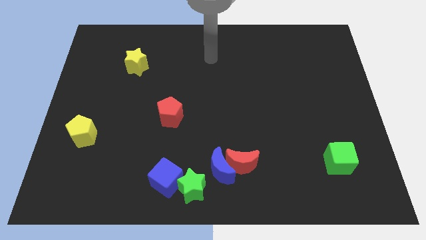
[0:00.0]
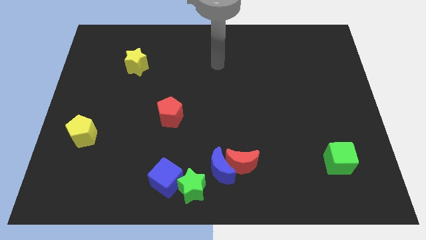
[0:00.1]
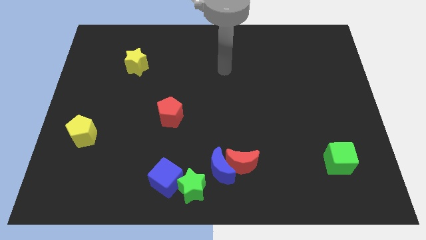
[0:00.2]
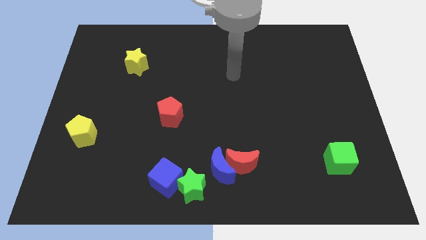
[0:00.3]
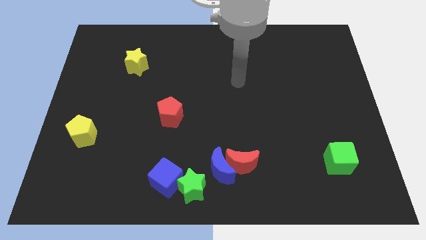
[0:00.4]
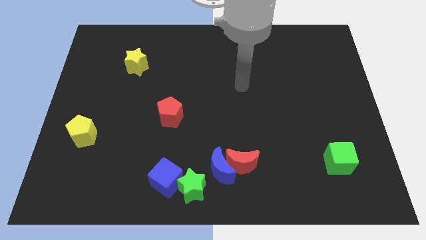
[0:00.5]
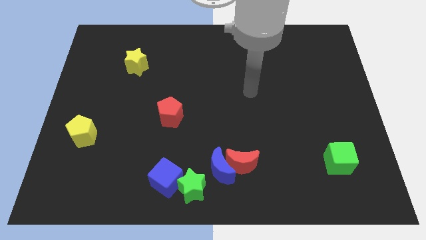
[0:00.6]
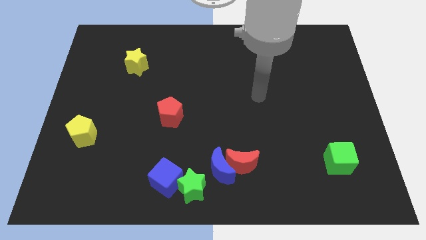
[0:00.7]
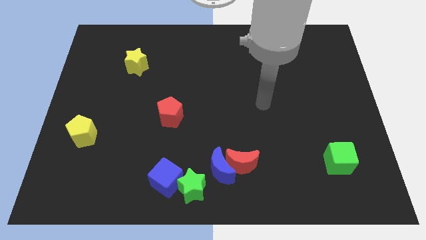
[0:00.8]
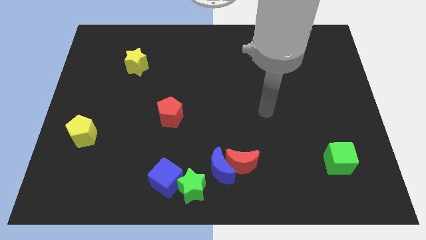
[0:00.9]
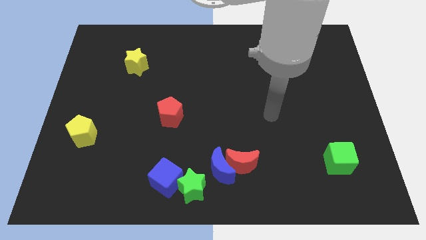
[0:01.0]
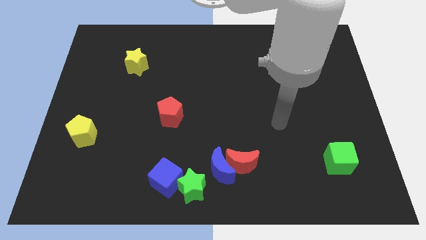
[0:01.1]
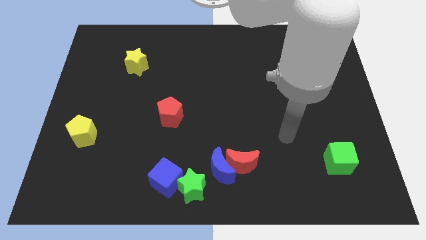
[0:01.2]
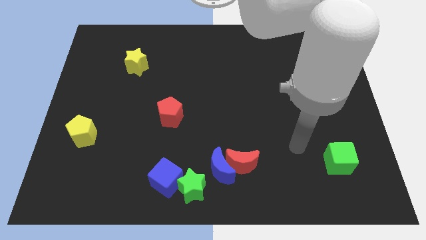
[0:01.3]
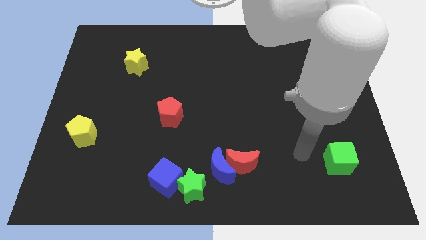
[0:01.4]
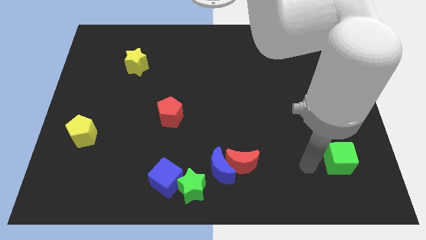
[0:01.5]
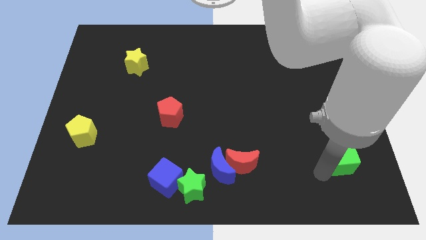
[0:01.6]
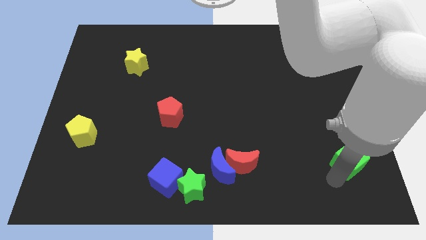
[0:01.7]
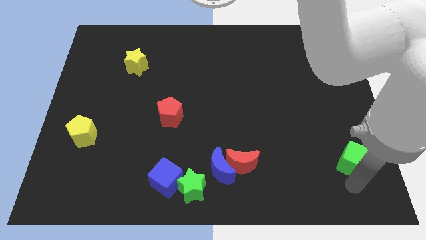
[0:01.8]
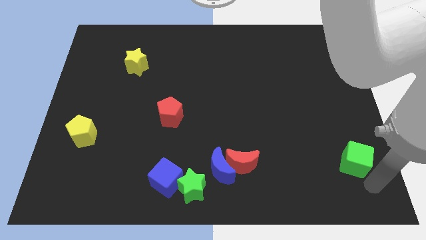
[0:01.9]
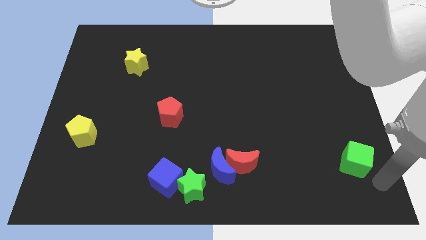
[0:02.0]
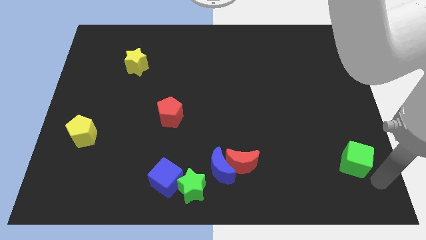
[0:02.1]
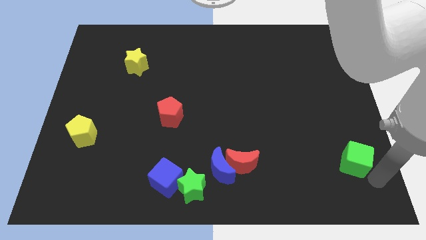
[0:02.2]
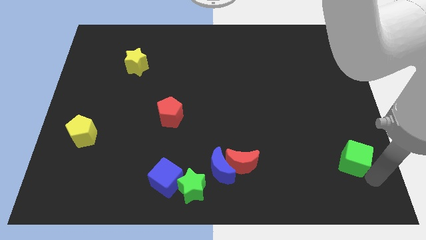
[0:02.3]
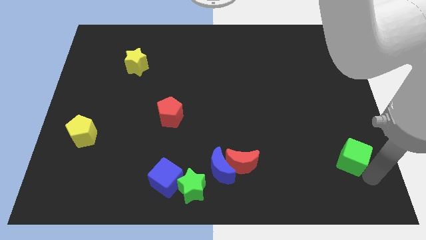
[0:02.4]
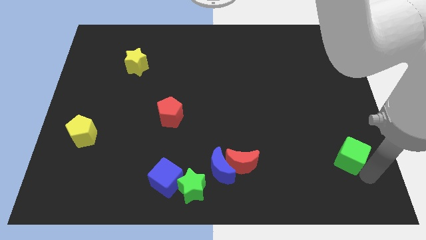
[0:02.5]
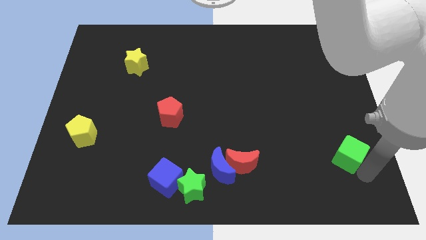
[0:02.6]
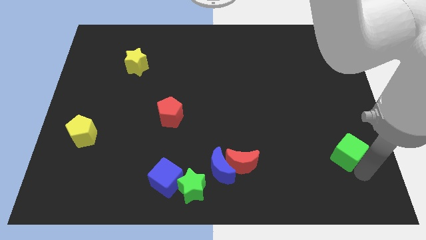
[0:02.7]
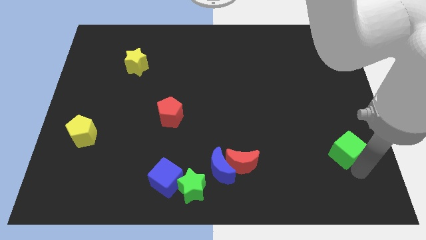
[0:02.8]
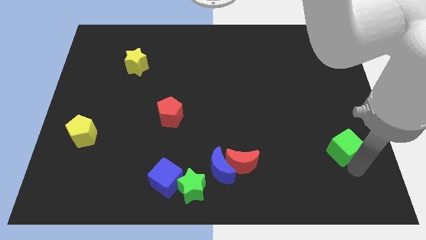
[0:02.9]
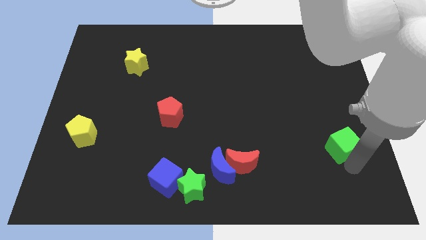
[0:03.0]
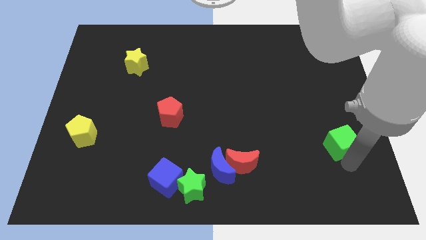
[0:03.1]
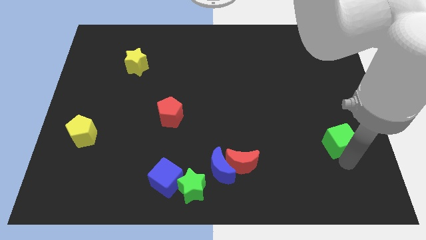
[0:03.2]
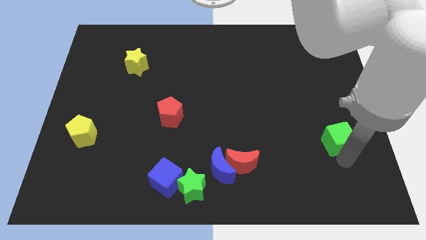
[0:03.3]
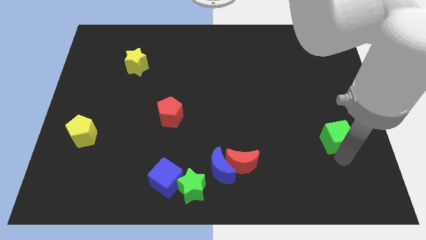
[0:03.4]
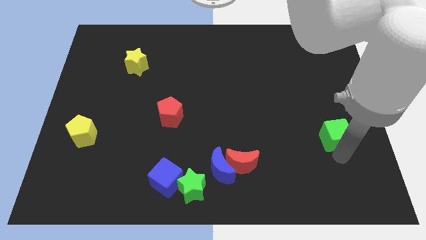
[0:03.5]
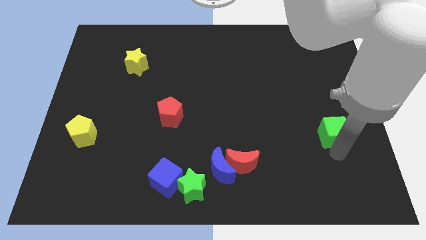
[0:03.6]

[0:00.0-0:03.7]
push the green cube somewhat up

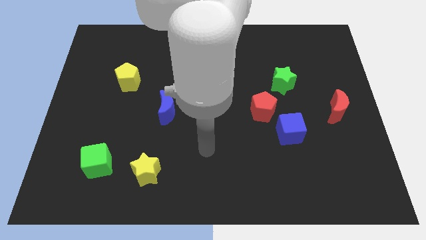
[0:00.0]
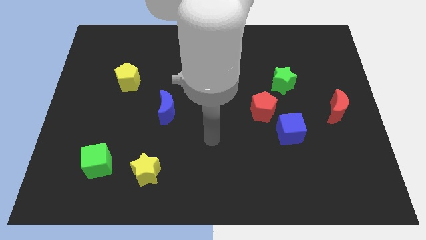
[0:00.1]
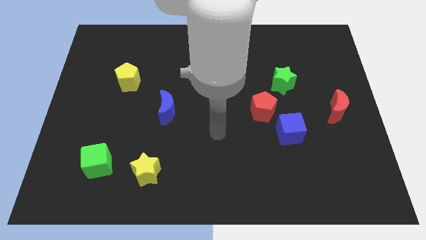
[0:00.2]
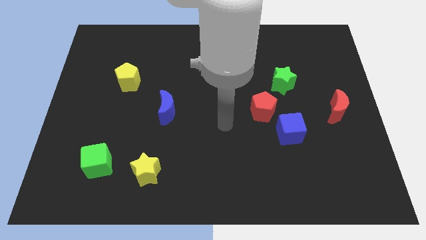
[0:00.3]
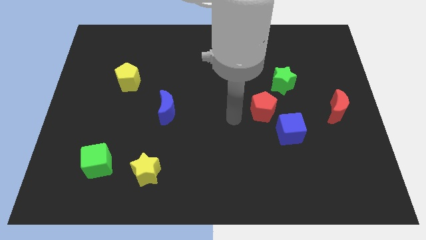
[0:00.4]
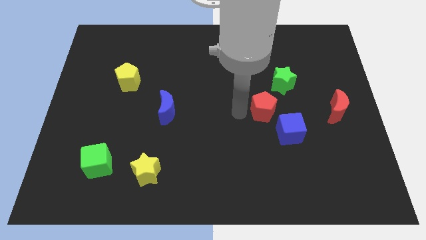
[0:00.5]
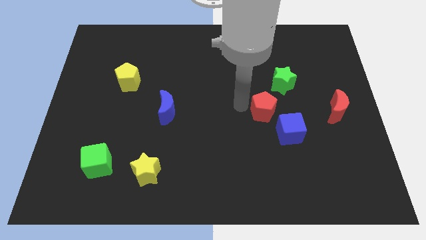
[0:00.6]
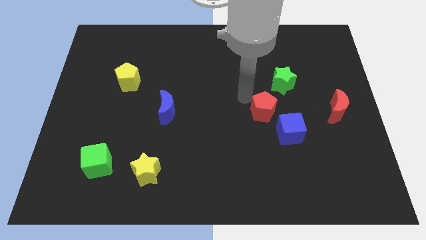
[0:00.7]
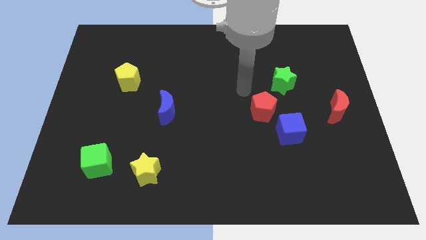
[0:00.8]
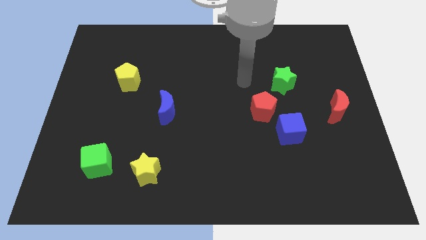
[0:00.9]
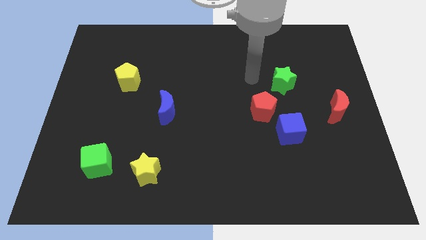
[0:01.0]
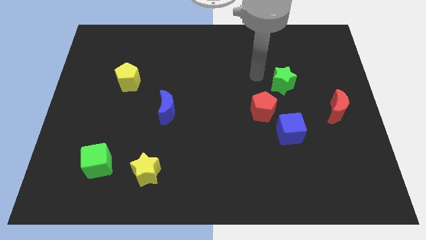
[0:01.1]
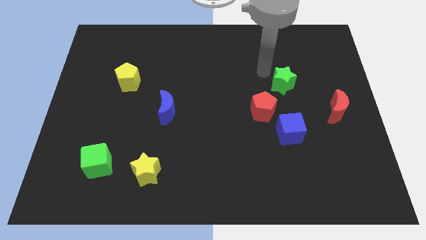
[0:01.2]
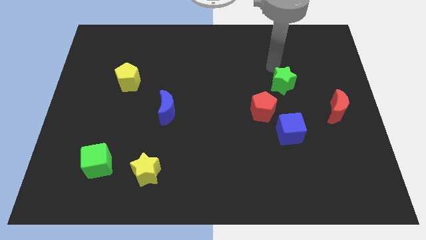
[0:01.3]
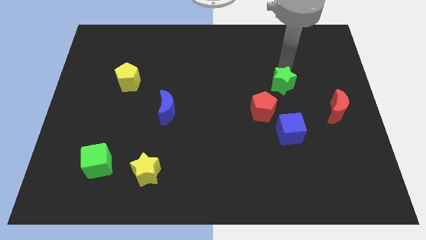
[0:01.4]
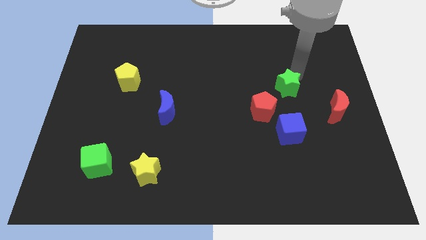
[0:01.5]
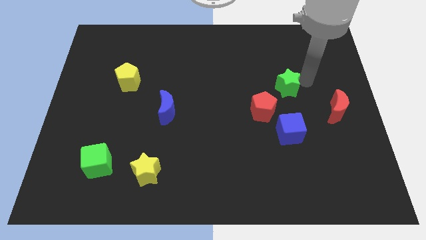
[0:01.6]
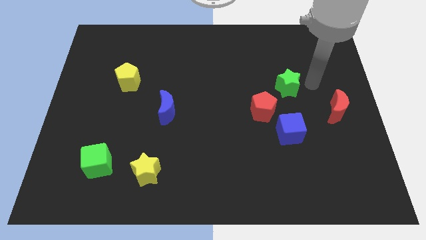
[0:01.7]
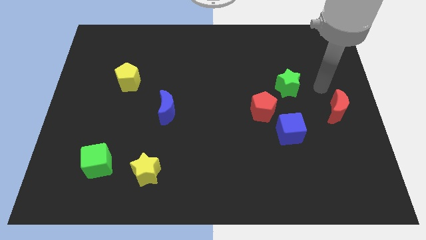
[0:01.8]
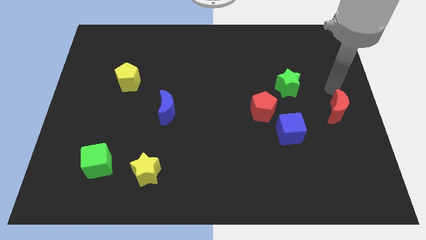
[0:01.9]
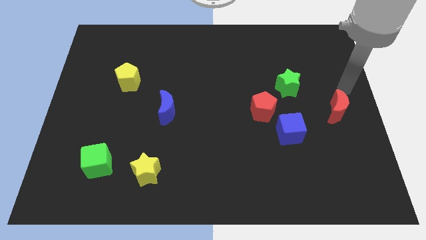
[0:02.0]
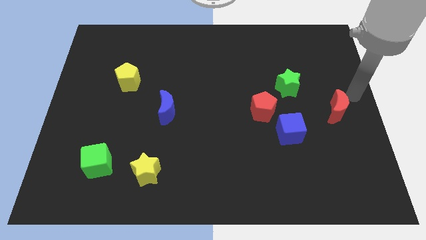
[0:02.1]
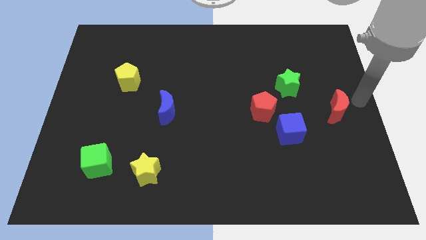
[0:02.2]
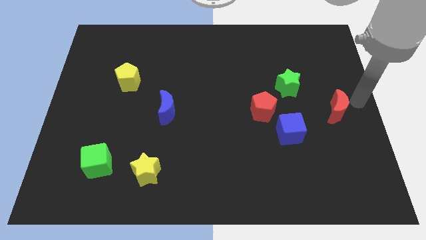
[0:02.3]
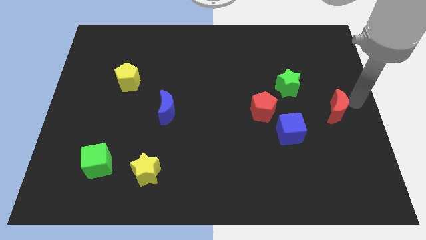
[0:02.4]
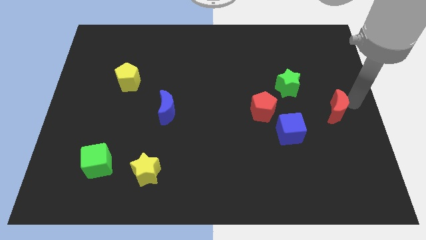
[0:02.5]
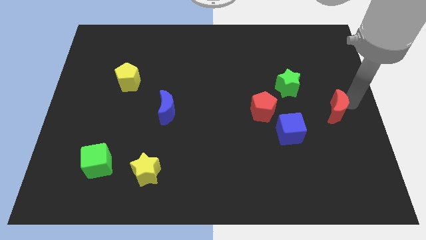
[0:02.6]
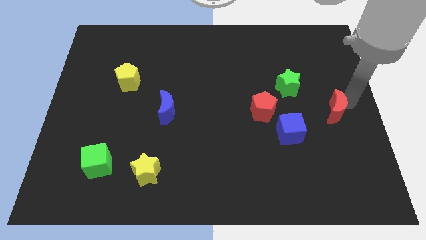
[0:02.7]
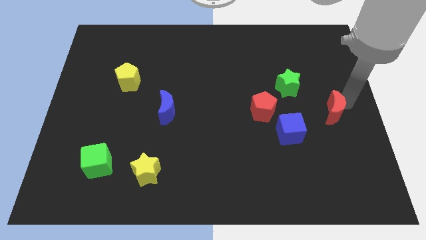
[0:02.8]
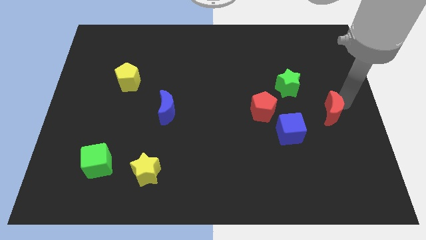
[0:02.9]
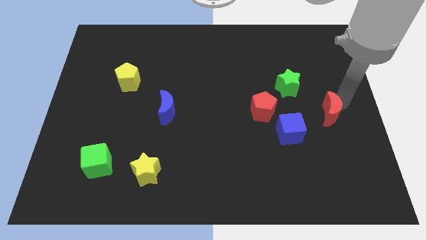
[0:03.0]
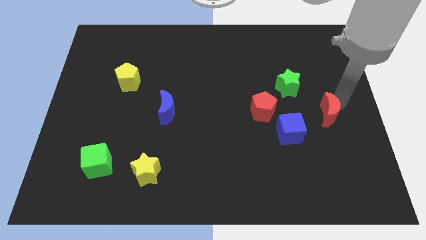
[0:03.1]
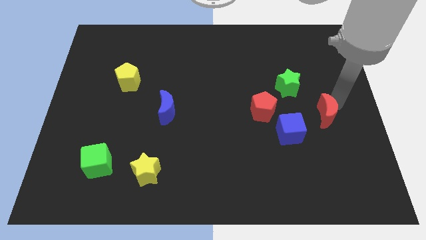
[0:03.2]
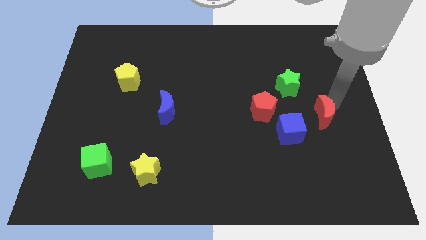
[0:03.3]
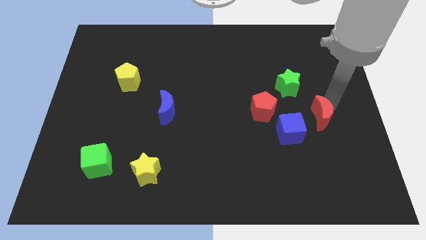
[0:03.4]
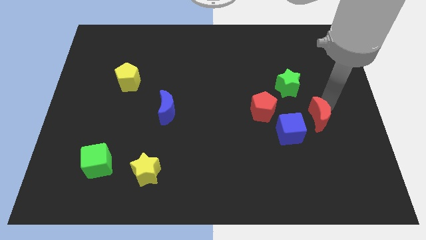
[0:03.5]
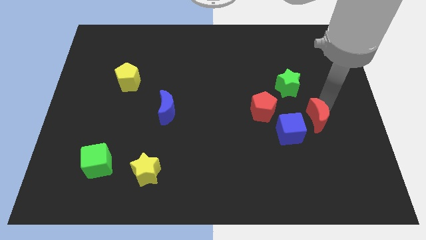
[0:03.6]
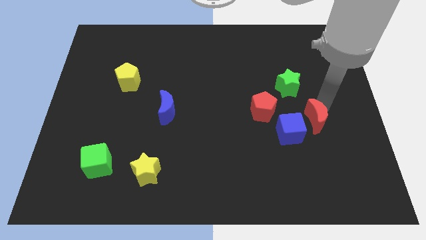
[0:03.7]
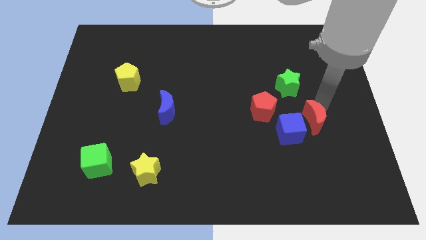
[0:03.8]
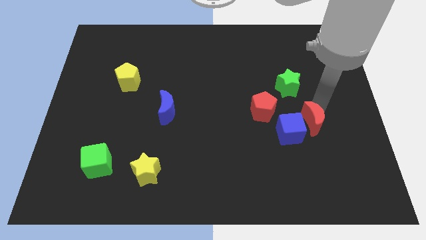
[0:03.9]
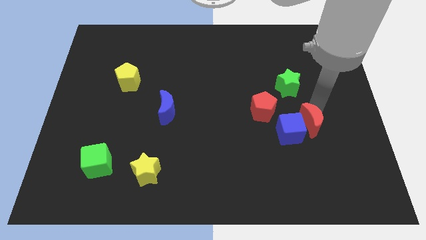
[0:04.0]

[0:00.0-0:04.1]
push the red moon diagonally downwards and left somewhat

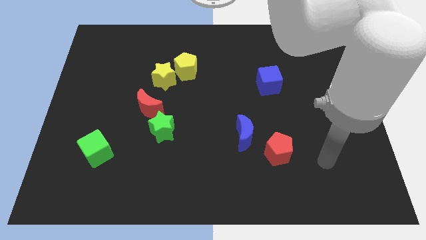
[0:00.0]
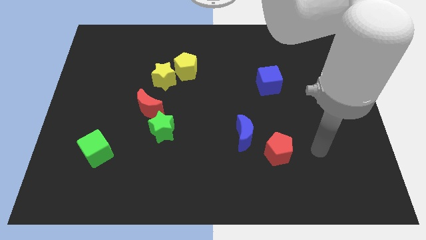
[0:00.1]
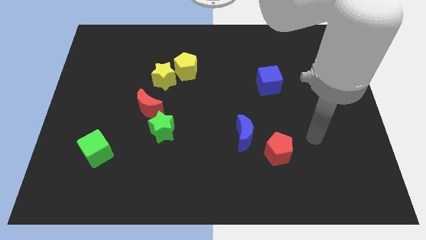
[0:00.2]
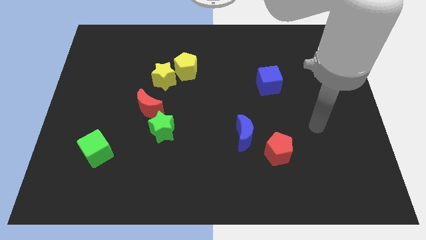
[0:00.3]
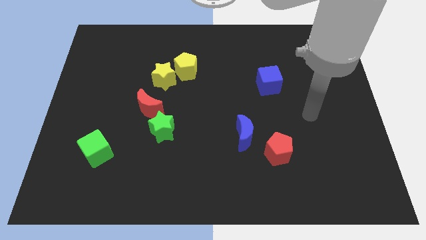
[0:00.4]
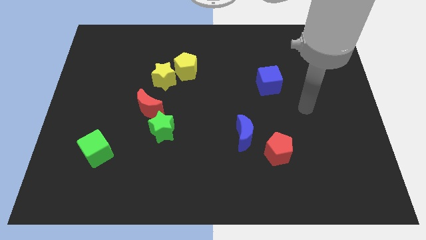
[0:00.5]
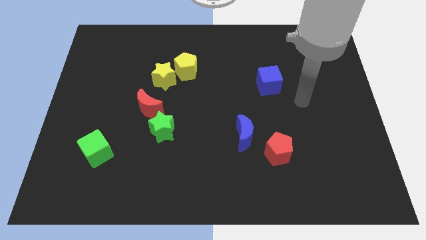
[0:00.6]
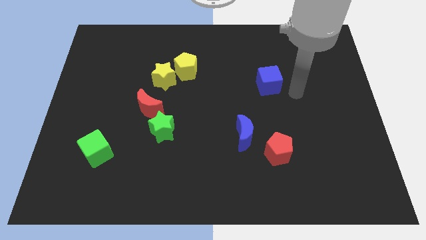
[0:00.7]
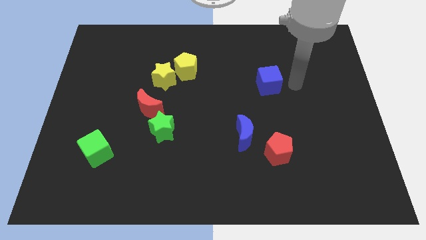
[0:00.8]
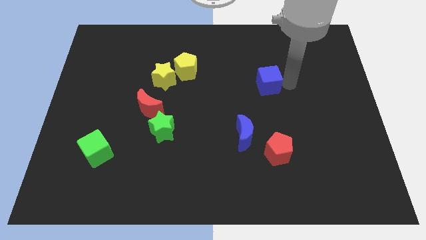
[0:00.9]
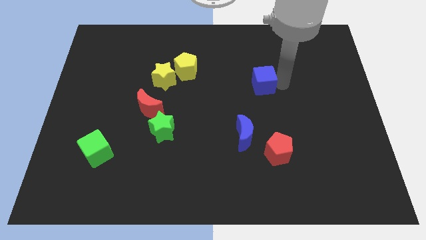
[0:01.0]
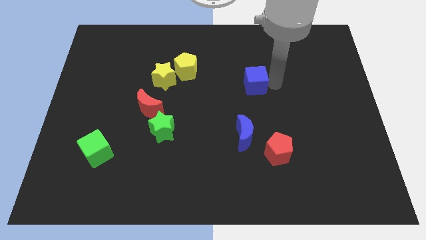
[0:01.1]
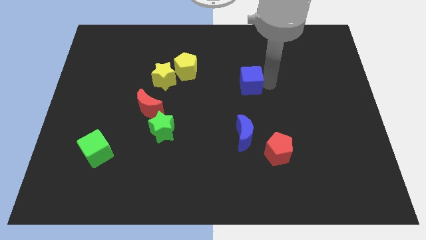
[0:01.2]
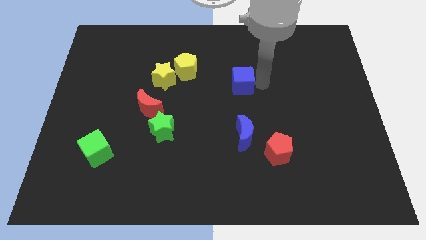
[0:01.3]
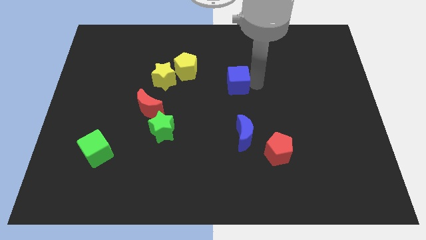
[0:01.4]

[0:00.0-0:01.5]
push the blue cube somewhat left
